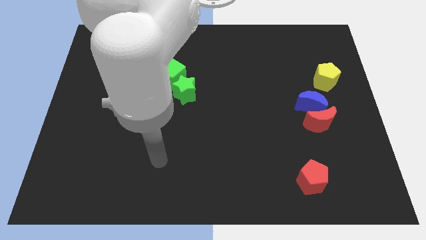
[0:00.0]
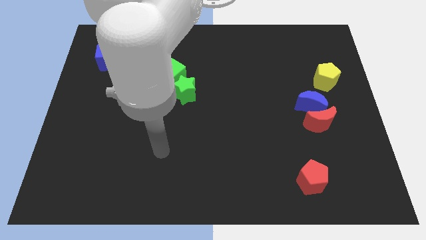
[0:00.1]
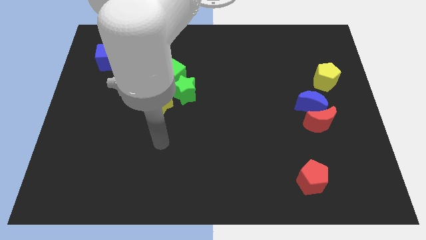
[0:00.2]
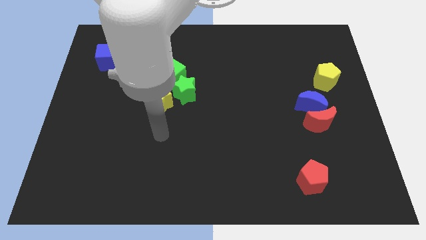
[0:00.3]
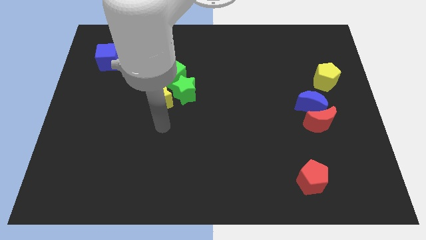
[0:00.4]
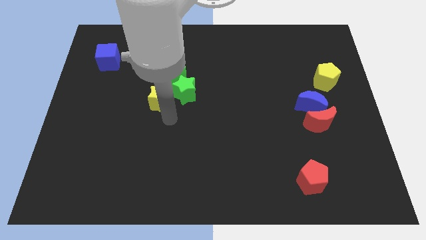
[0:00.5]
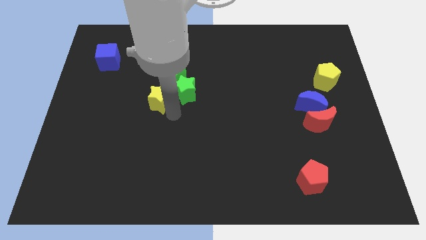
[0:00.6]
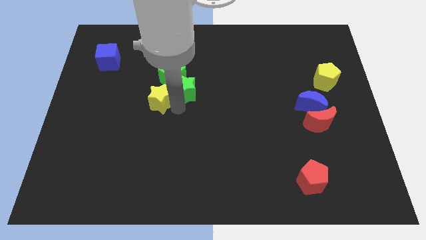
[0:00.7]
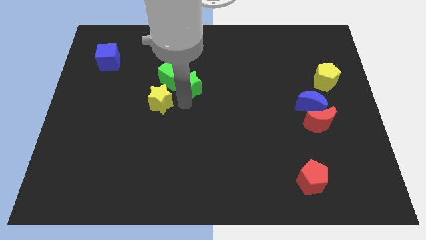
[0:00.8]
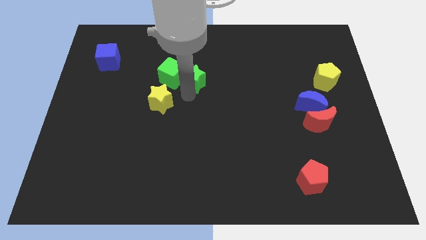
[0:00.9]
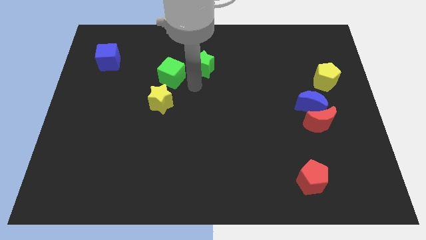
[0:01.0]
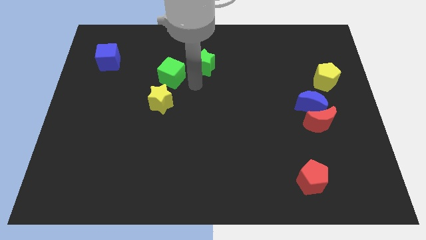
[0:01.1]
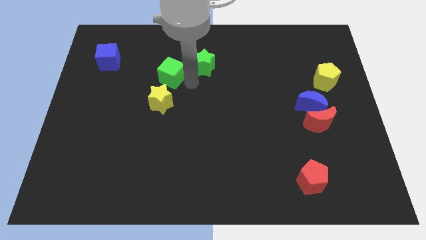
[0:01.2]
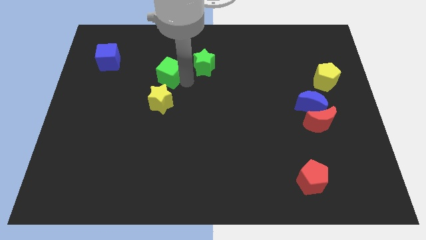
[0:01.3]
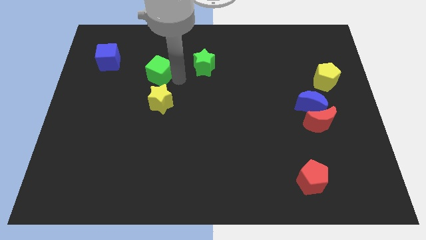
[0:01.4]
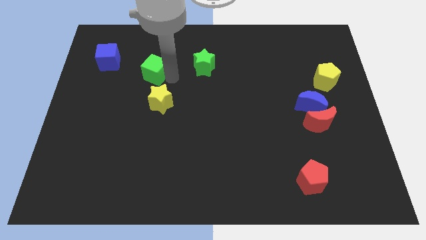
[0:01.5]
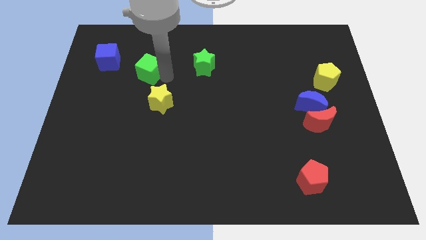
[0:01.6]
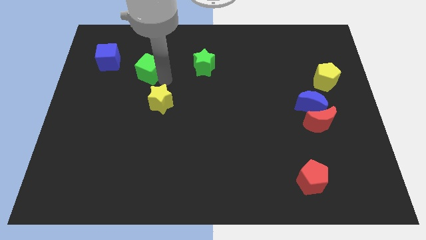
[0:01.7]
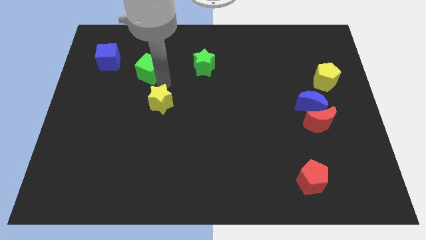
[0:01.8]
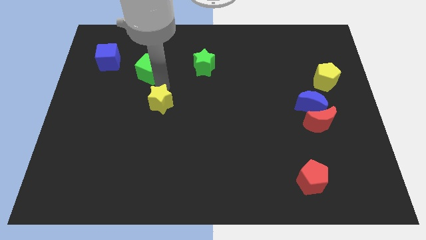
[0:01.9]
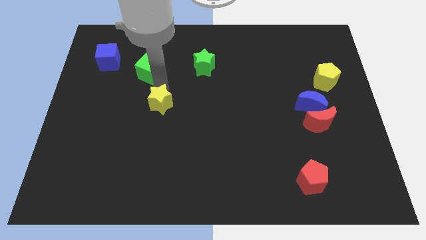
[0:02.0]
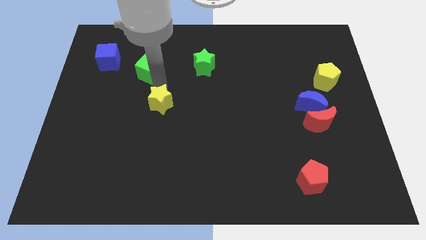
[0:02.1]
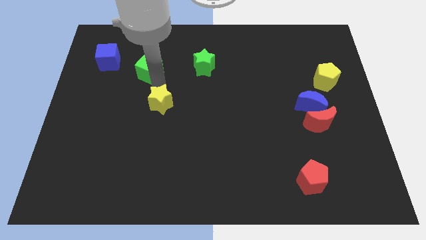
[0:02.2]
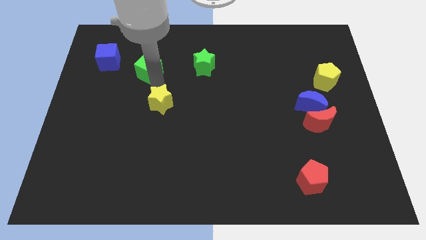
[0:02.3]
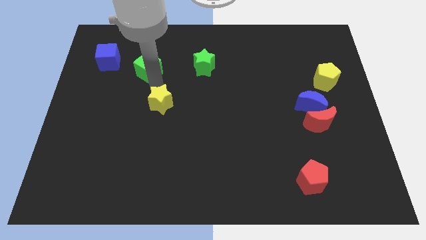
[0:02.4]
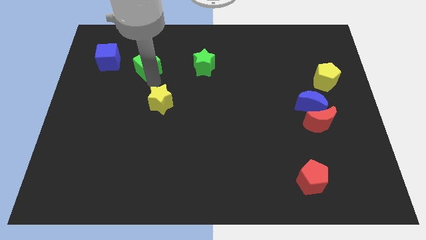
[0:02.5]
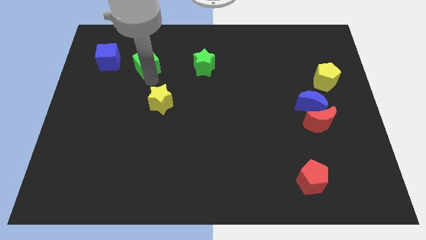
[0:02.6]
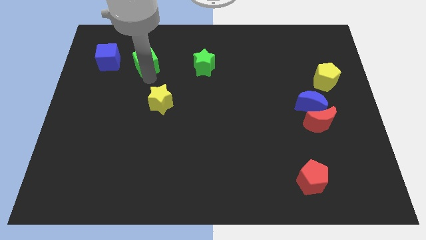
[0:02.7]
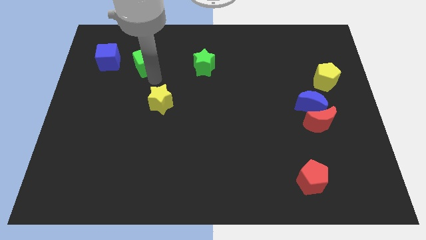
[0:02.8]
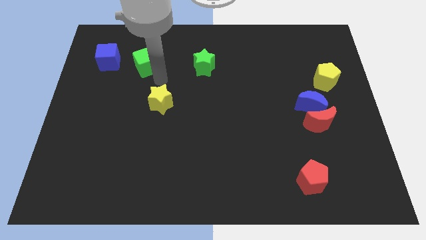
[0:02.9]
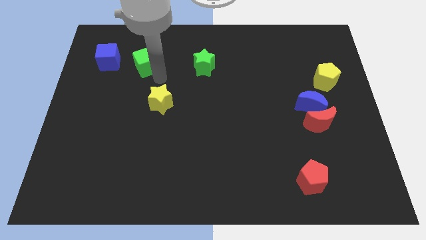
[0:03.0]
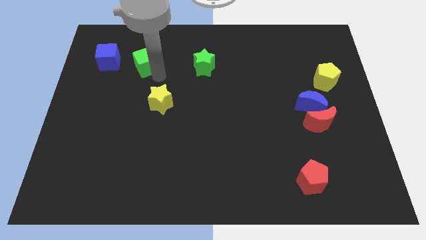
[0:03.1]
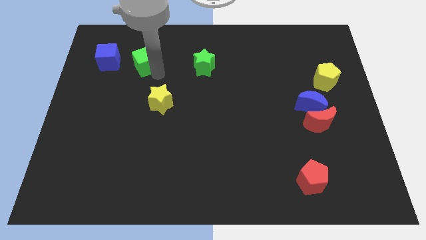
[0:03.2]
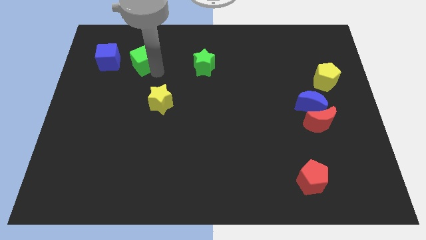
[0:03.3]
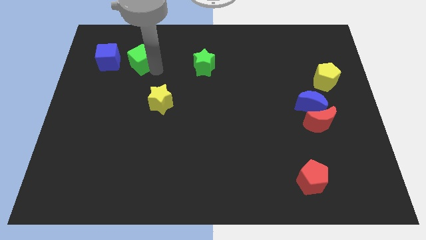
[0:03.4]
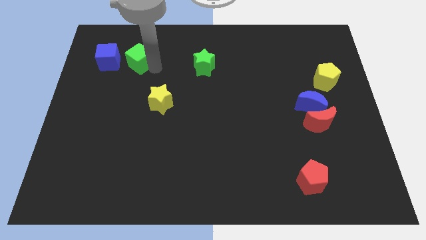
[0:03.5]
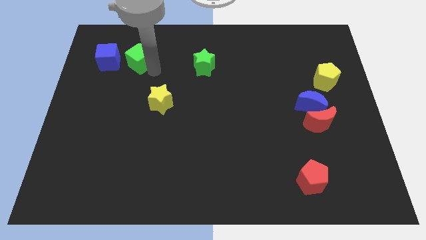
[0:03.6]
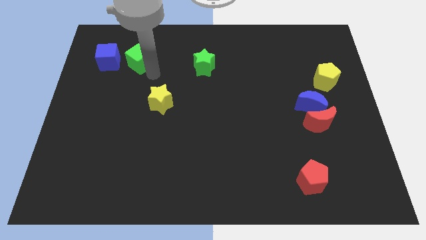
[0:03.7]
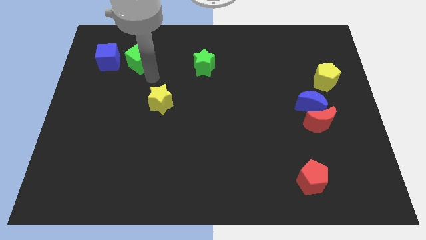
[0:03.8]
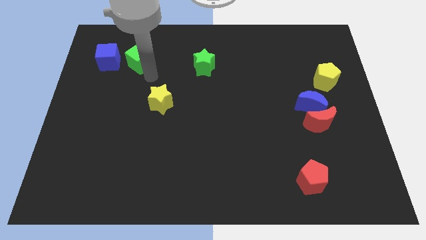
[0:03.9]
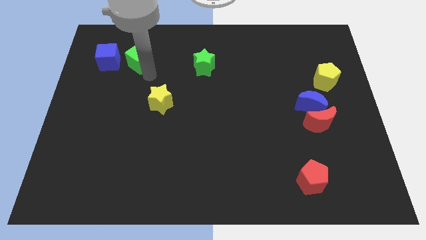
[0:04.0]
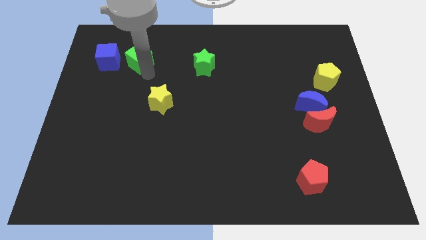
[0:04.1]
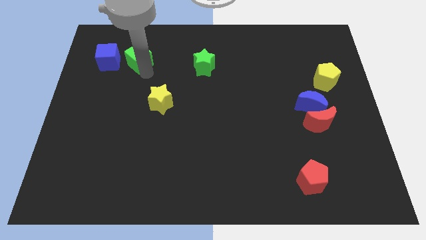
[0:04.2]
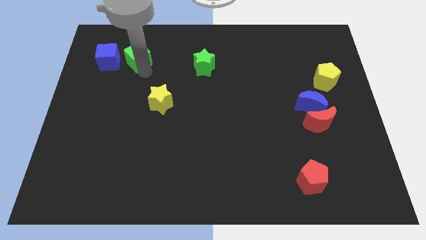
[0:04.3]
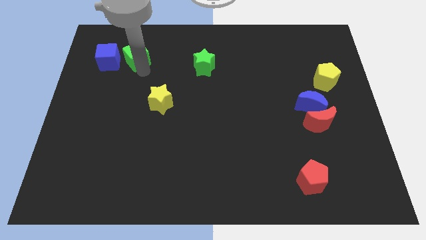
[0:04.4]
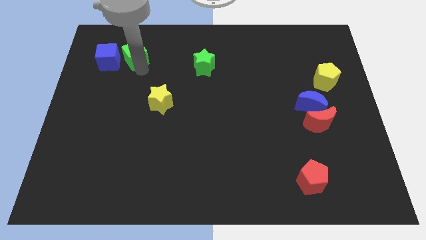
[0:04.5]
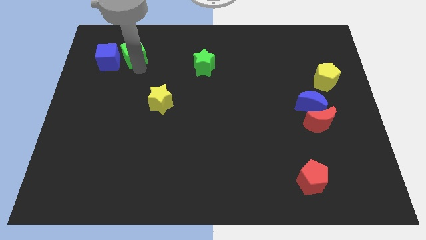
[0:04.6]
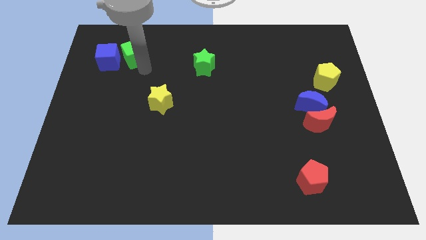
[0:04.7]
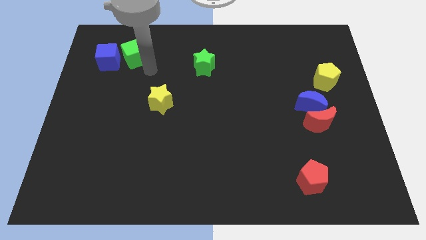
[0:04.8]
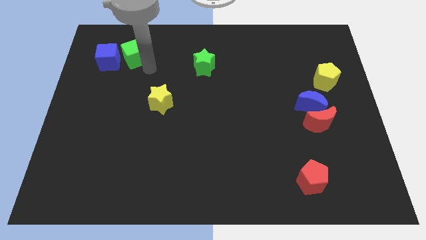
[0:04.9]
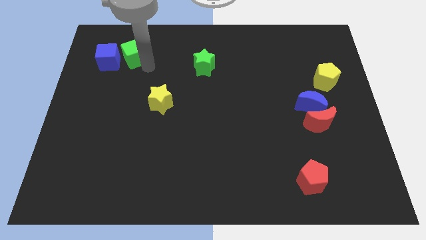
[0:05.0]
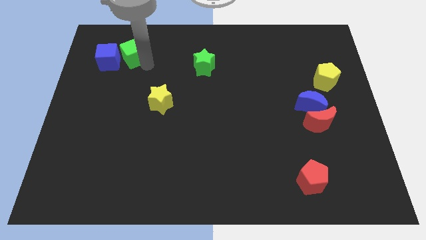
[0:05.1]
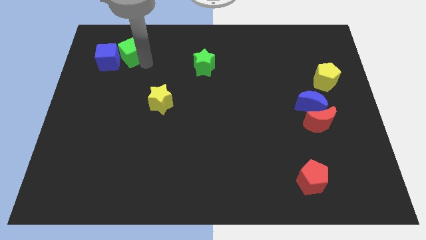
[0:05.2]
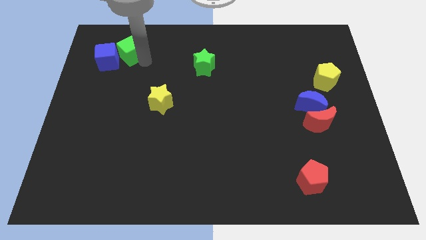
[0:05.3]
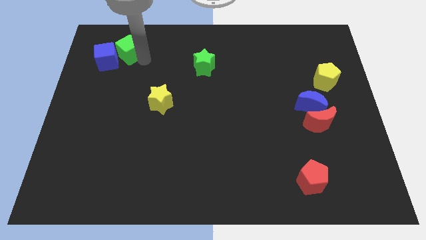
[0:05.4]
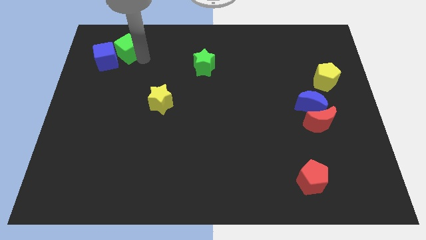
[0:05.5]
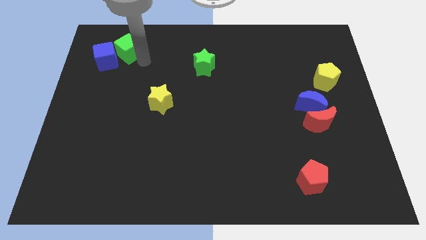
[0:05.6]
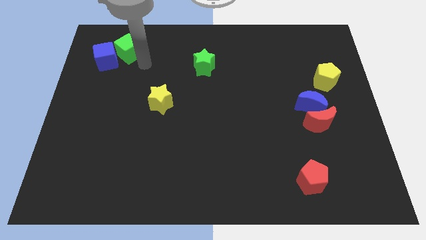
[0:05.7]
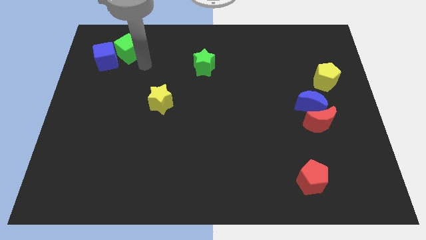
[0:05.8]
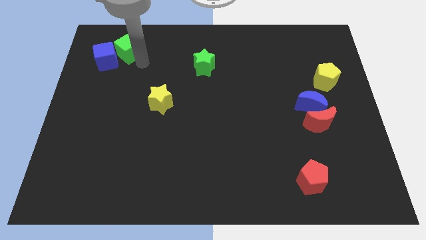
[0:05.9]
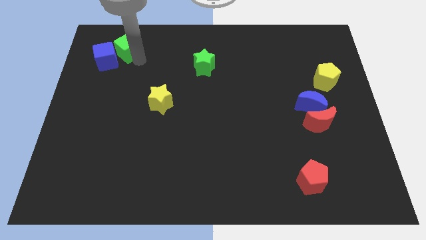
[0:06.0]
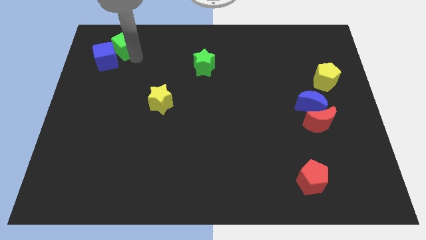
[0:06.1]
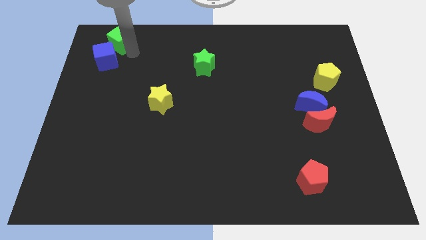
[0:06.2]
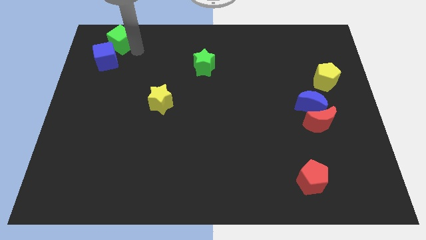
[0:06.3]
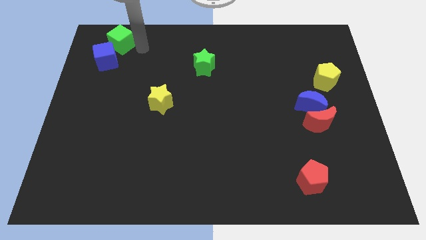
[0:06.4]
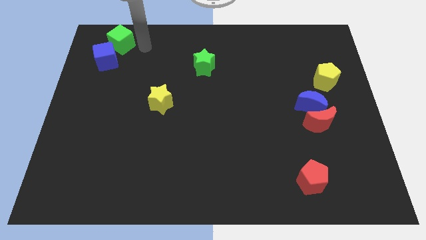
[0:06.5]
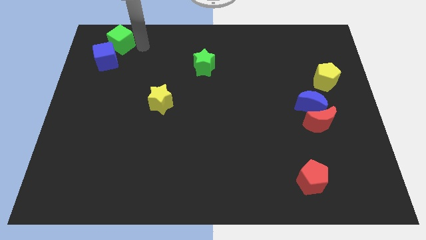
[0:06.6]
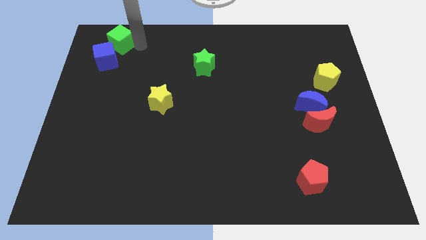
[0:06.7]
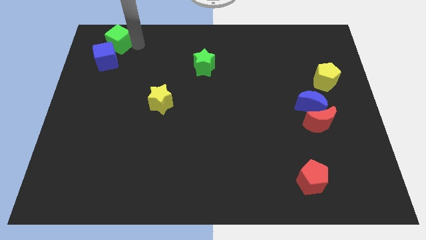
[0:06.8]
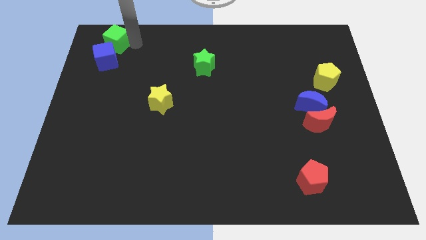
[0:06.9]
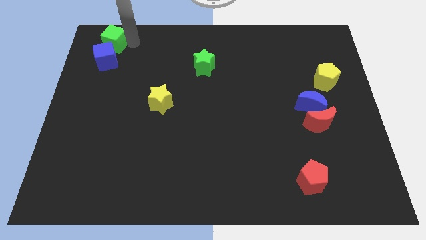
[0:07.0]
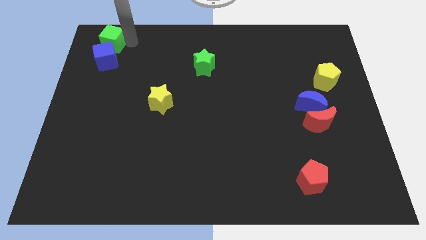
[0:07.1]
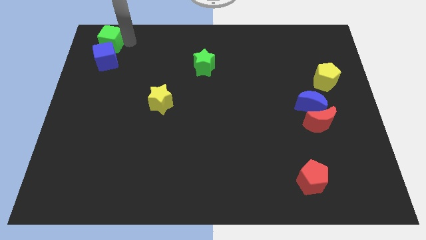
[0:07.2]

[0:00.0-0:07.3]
move the green cube to the top left of the board
